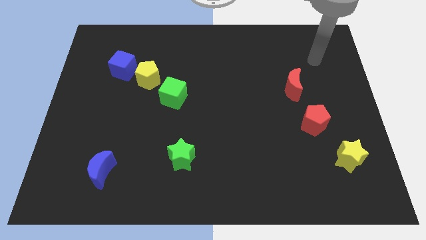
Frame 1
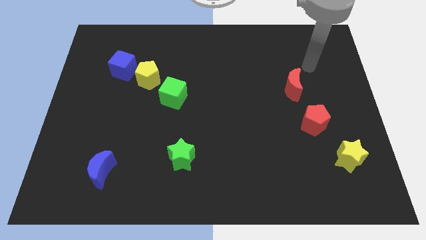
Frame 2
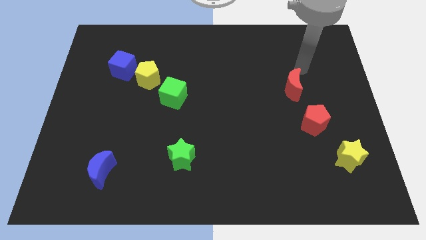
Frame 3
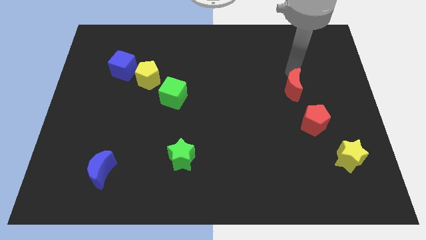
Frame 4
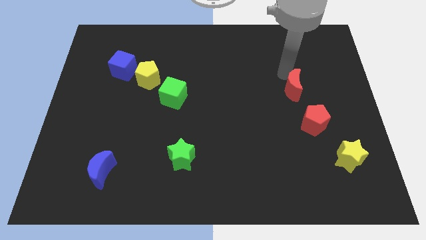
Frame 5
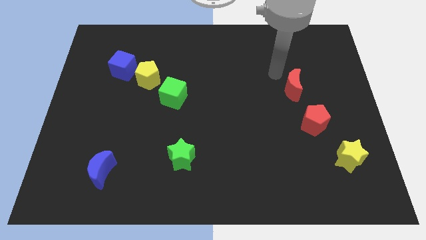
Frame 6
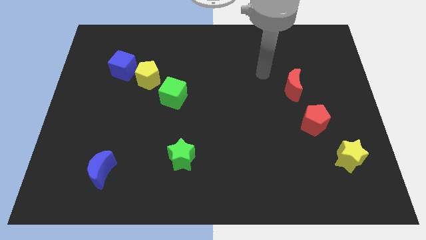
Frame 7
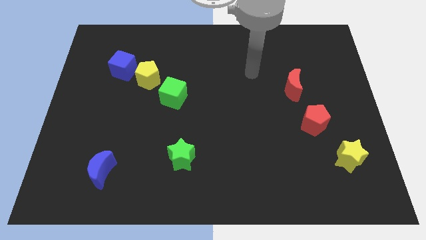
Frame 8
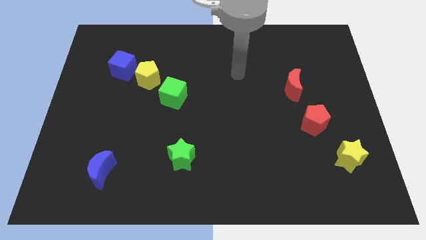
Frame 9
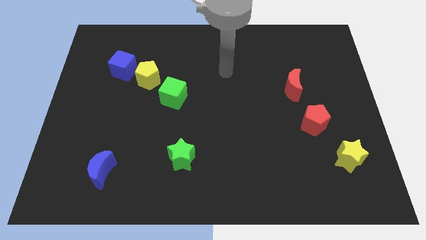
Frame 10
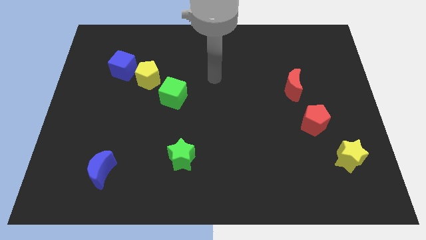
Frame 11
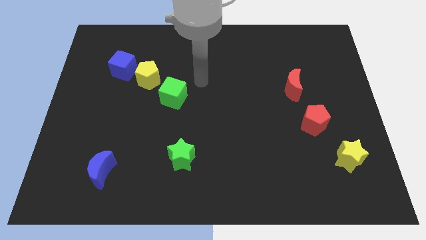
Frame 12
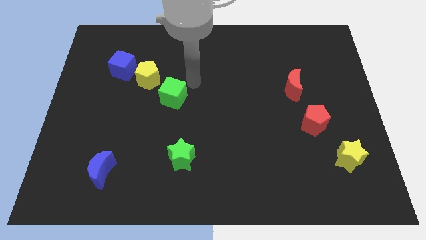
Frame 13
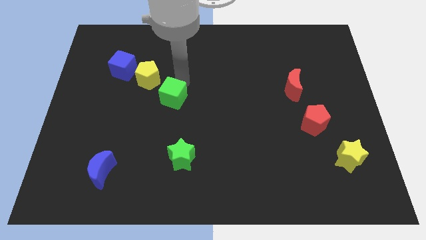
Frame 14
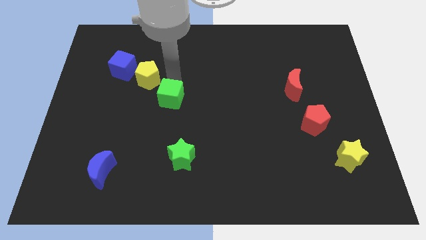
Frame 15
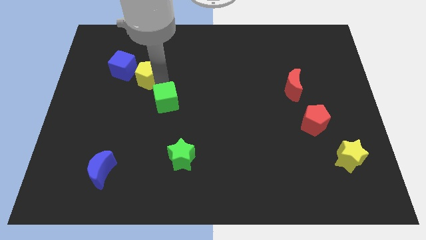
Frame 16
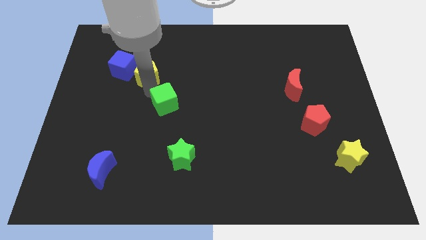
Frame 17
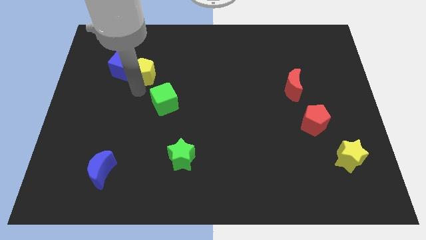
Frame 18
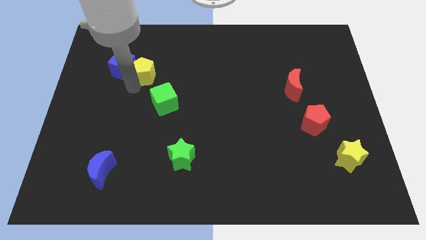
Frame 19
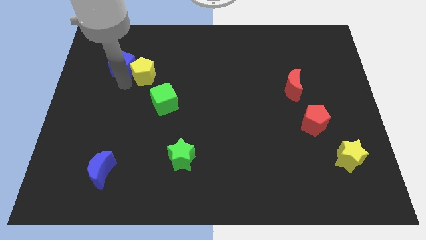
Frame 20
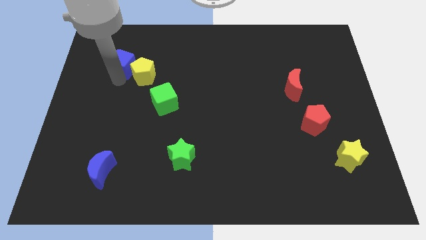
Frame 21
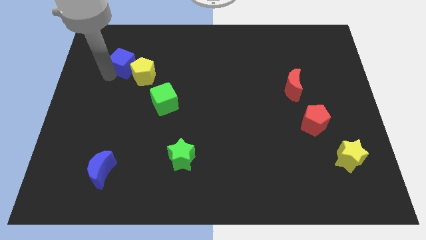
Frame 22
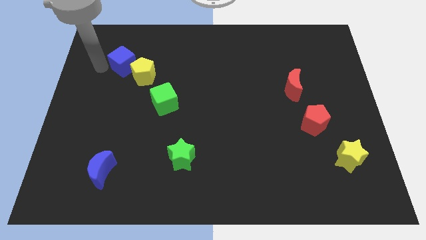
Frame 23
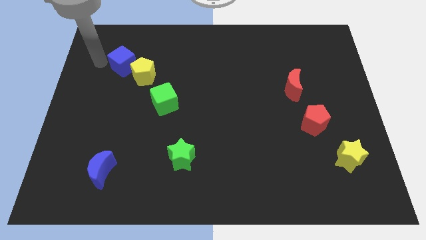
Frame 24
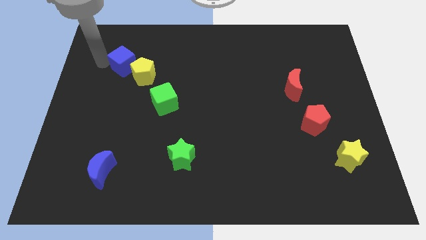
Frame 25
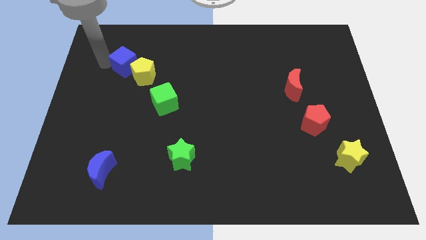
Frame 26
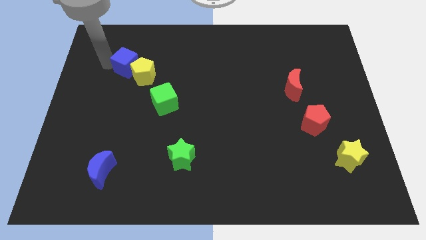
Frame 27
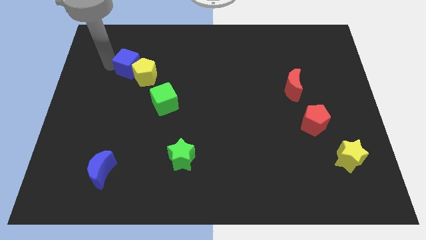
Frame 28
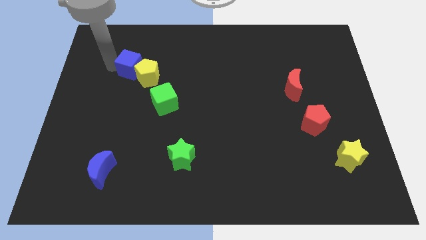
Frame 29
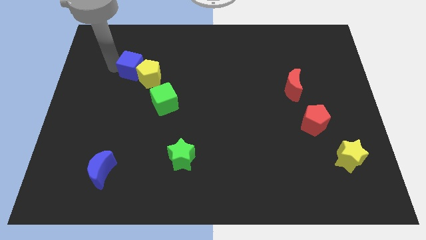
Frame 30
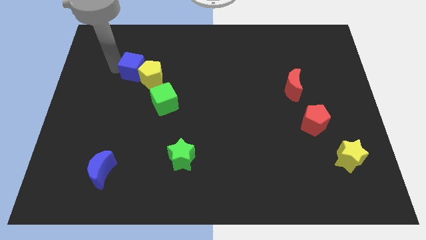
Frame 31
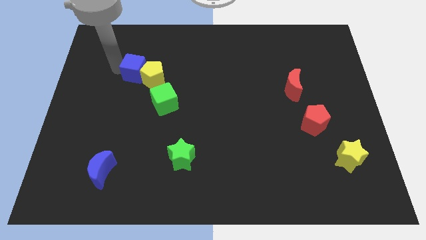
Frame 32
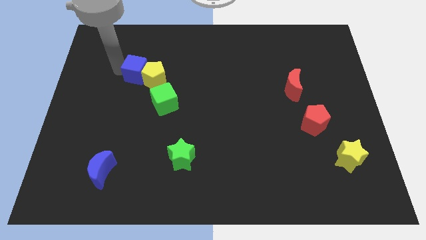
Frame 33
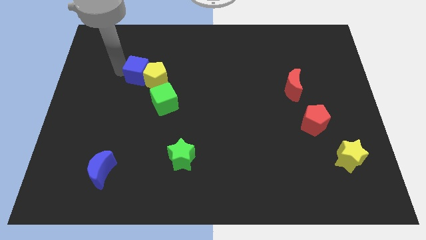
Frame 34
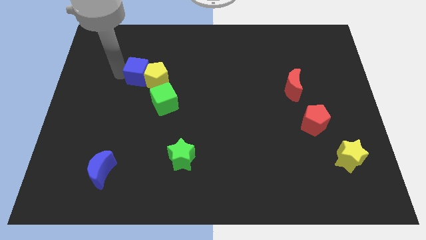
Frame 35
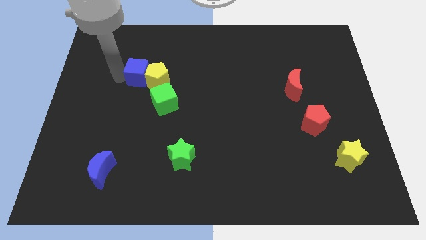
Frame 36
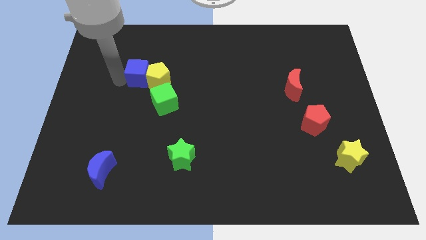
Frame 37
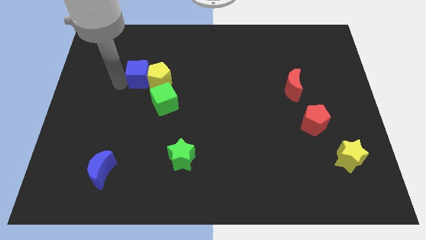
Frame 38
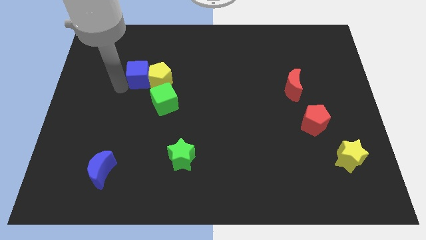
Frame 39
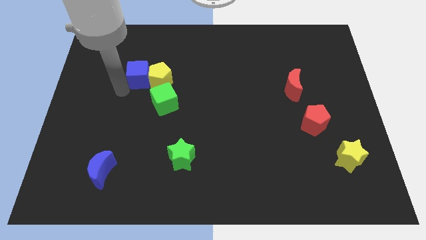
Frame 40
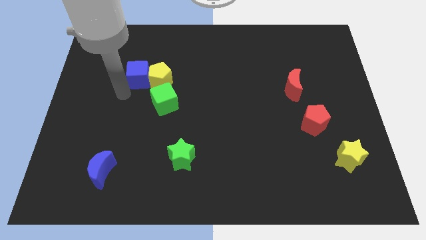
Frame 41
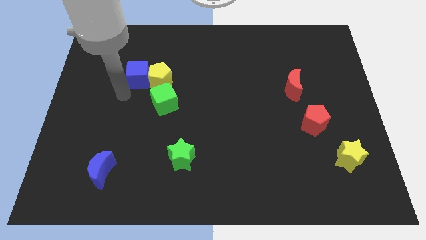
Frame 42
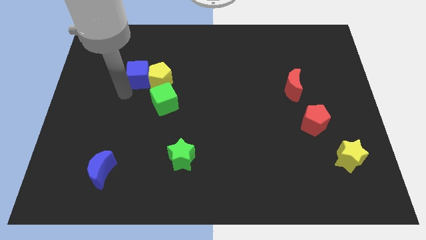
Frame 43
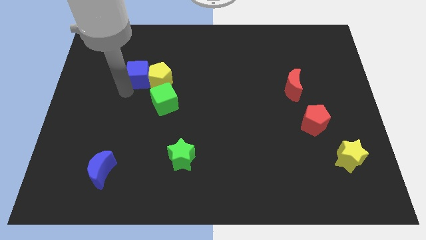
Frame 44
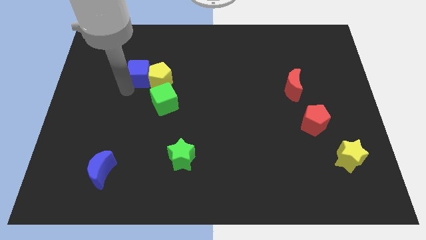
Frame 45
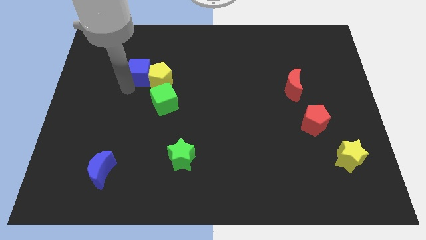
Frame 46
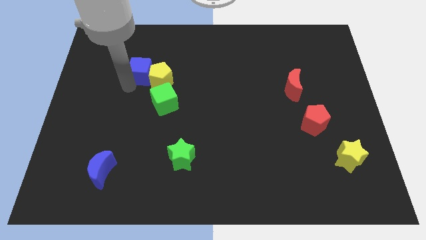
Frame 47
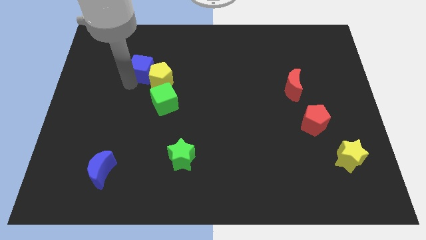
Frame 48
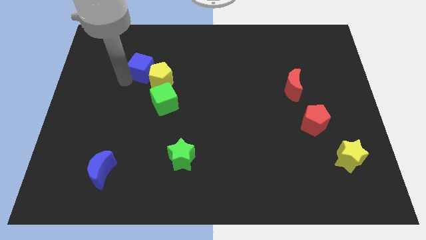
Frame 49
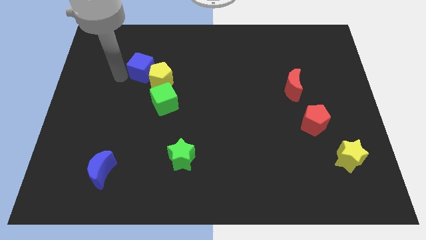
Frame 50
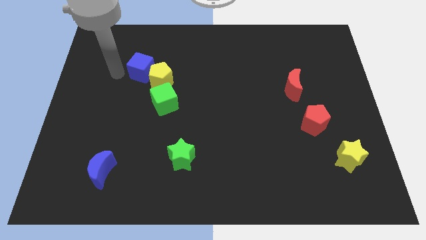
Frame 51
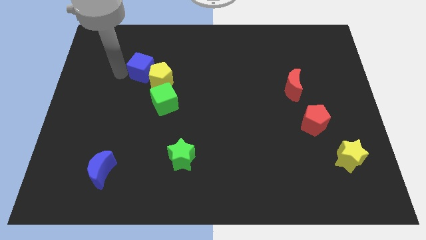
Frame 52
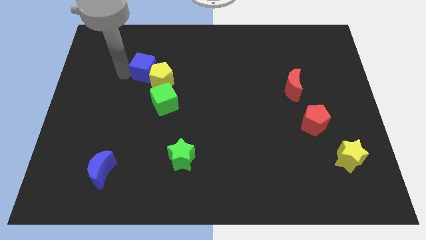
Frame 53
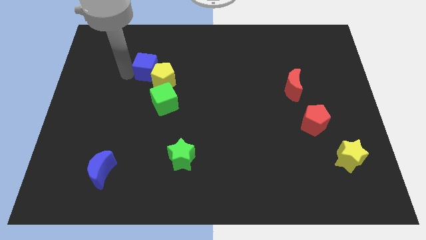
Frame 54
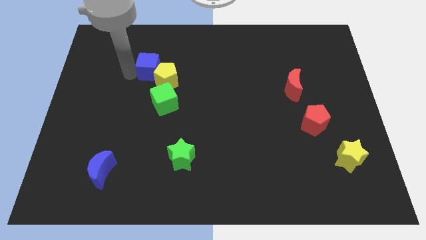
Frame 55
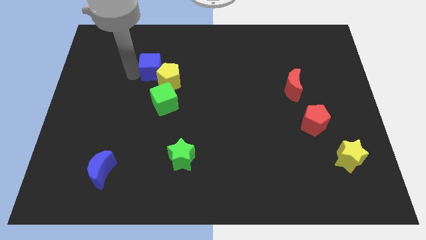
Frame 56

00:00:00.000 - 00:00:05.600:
slide the blue cube somewhat right

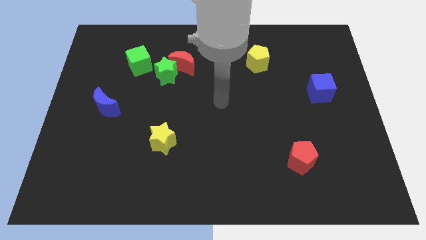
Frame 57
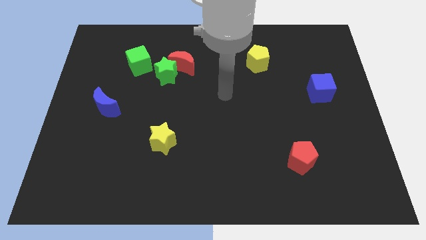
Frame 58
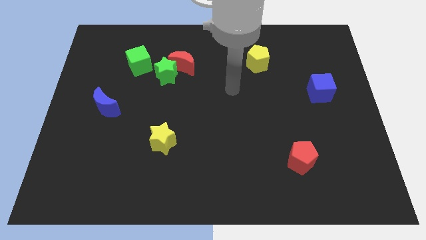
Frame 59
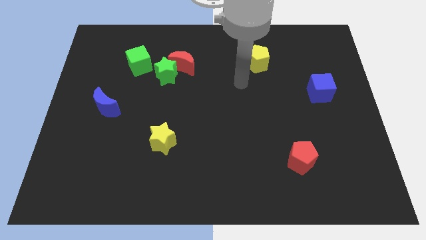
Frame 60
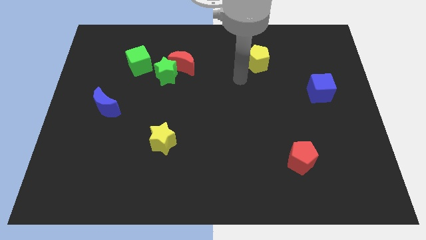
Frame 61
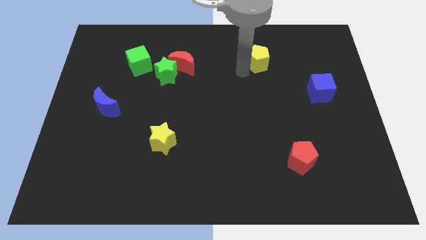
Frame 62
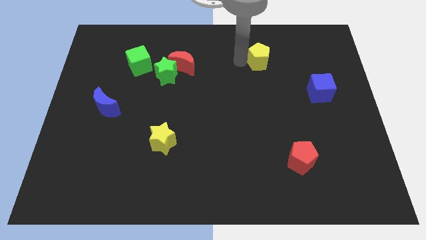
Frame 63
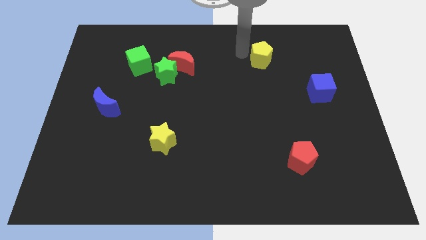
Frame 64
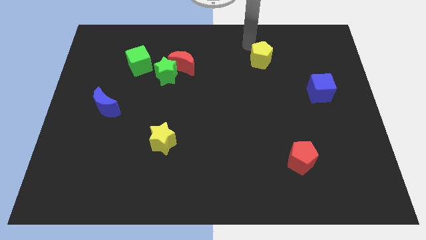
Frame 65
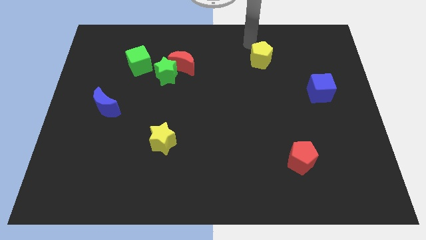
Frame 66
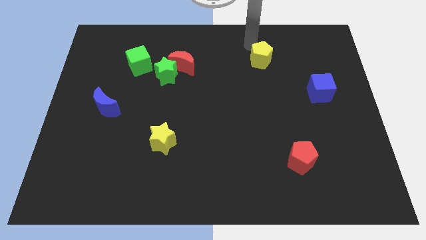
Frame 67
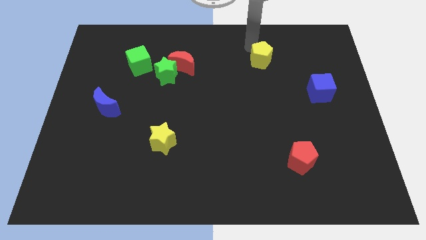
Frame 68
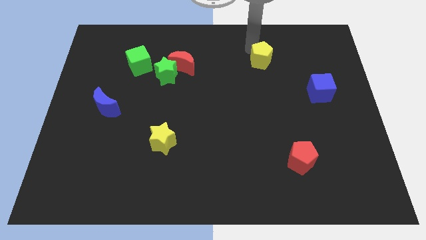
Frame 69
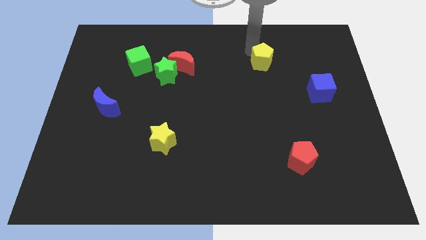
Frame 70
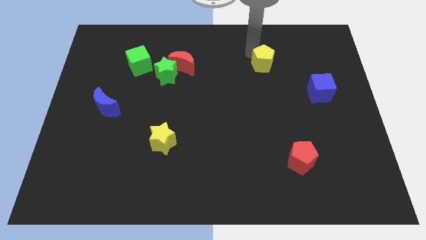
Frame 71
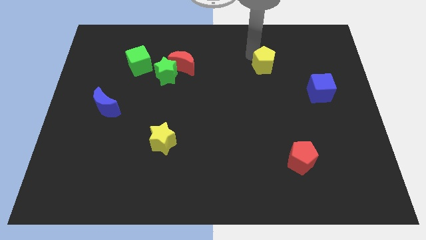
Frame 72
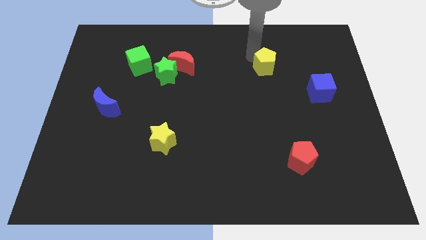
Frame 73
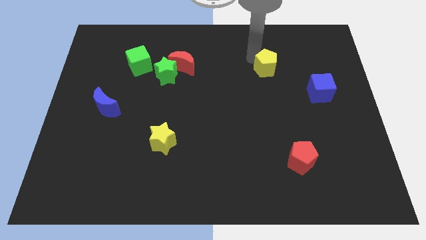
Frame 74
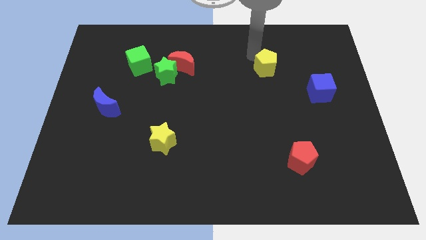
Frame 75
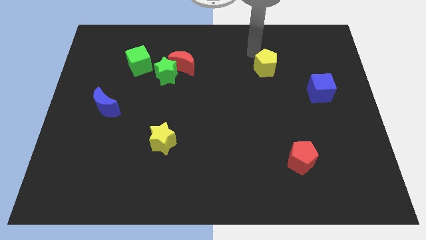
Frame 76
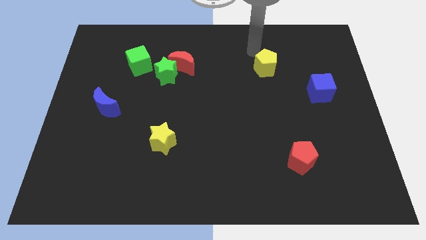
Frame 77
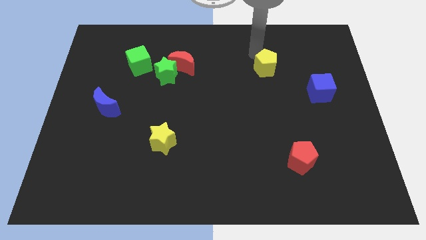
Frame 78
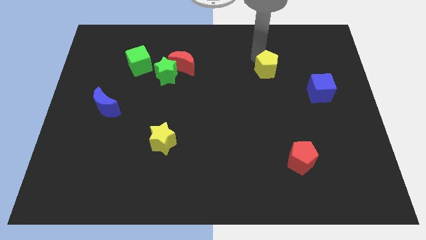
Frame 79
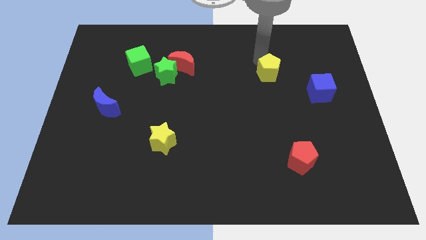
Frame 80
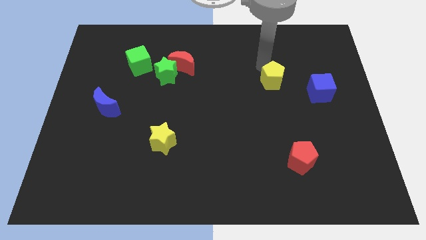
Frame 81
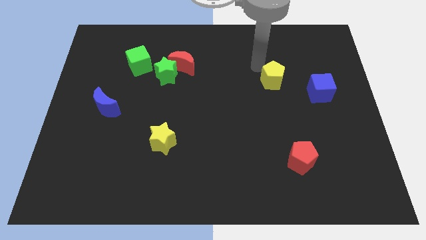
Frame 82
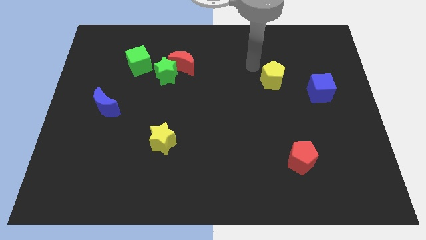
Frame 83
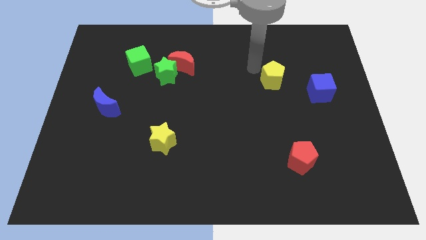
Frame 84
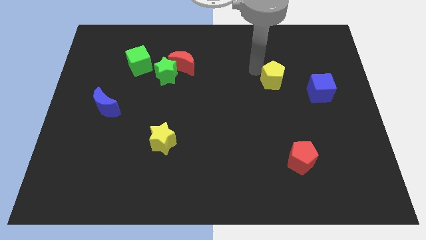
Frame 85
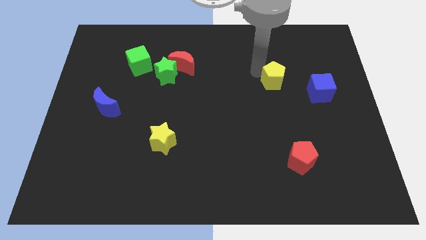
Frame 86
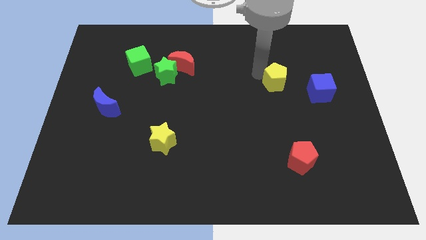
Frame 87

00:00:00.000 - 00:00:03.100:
slightly push the yellow pentagon down and to the right diagonally
